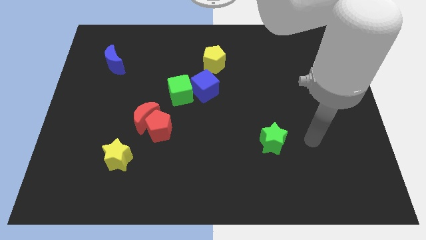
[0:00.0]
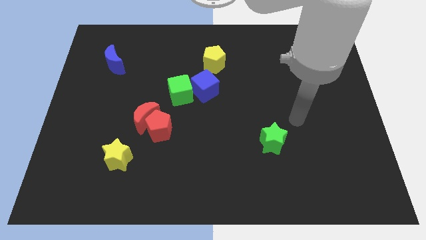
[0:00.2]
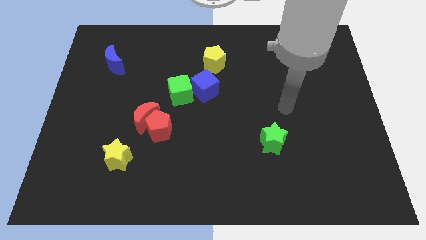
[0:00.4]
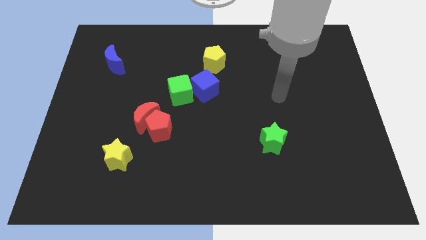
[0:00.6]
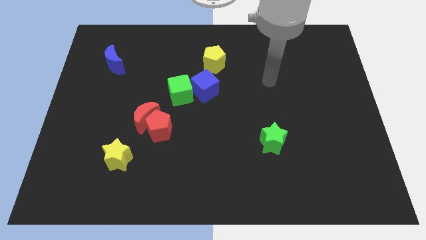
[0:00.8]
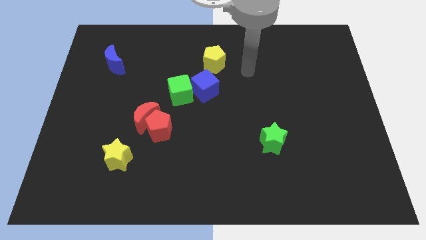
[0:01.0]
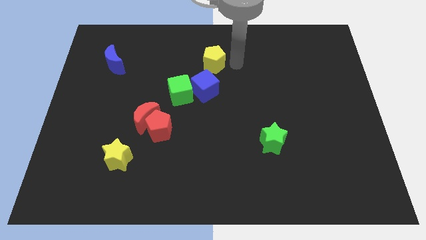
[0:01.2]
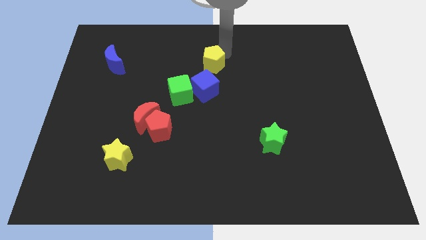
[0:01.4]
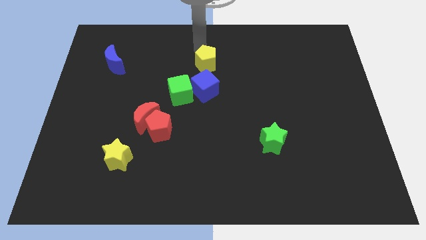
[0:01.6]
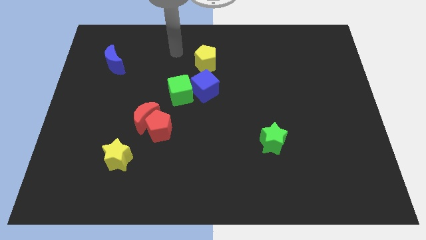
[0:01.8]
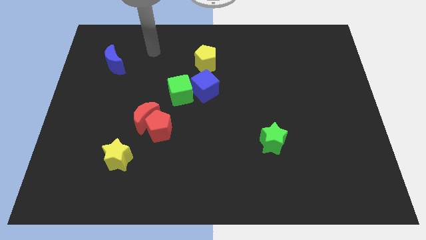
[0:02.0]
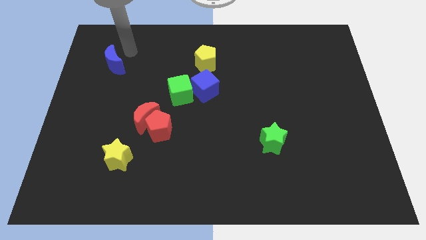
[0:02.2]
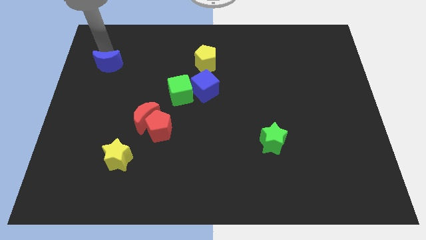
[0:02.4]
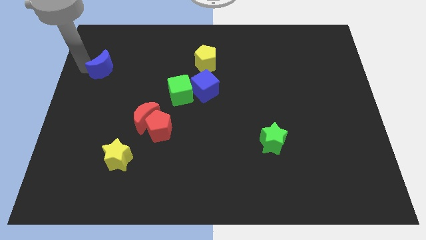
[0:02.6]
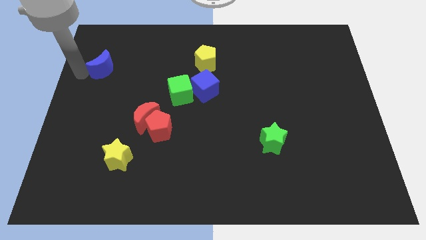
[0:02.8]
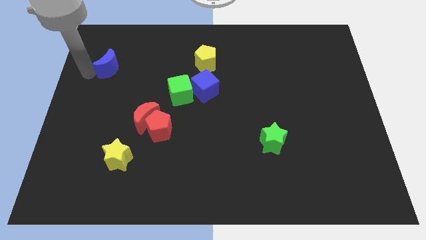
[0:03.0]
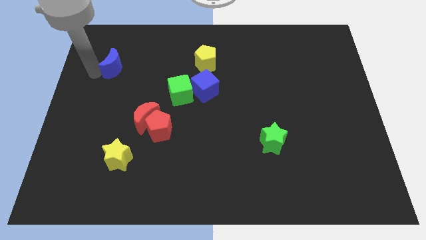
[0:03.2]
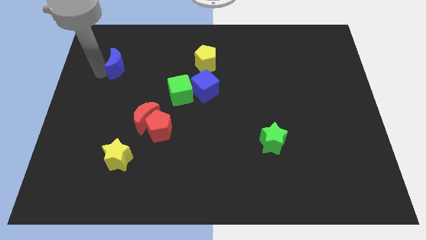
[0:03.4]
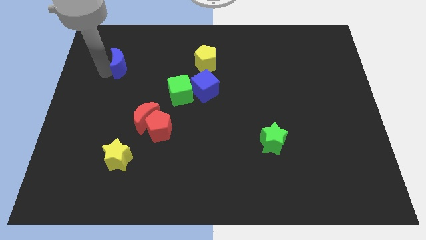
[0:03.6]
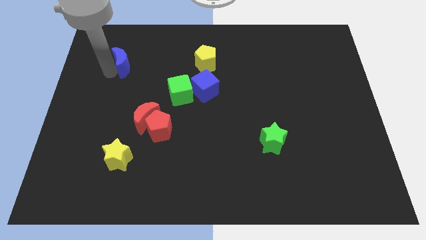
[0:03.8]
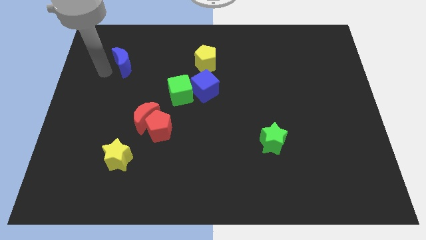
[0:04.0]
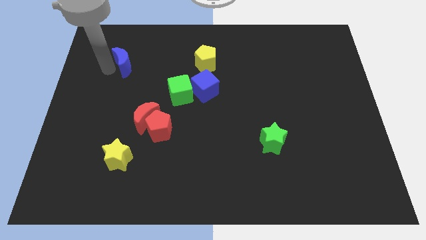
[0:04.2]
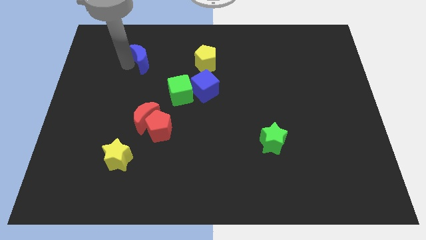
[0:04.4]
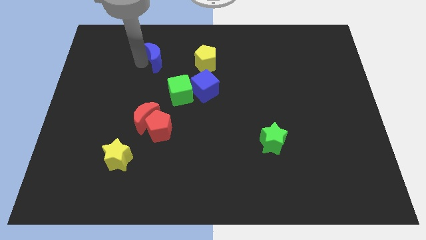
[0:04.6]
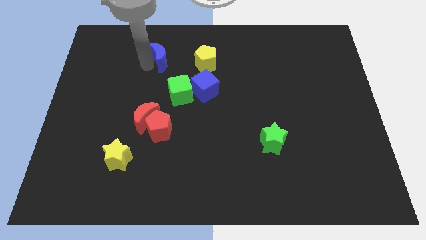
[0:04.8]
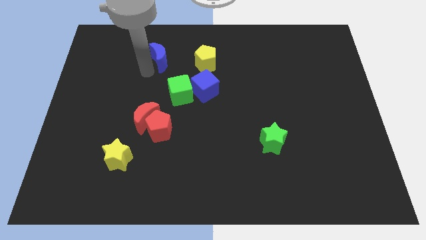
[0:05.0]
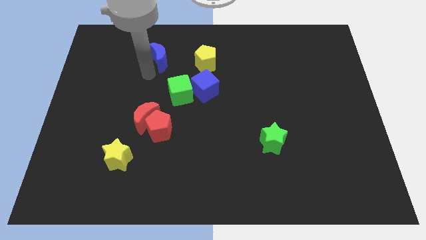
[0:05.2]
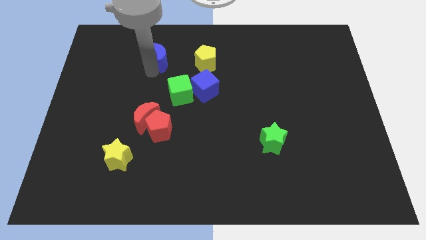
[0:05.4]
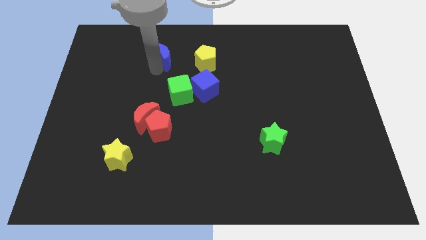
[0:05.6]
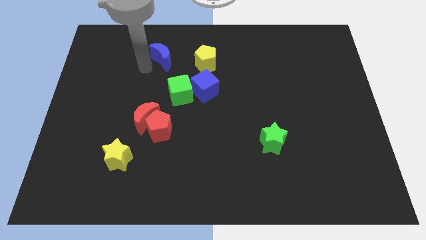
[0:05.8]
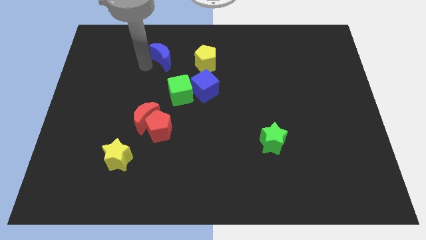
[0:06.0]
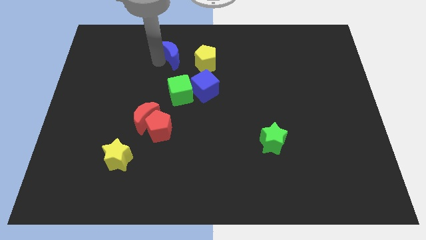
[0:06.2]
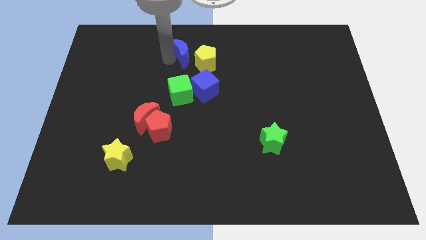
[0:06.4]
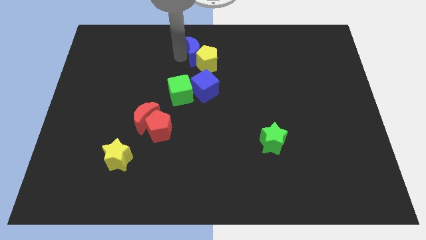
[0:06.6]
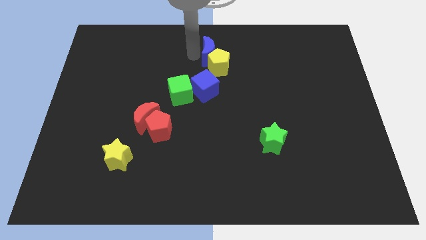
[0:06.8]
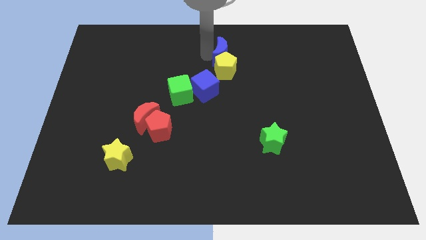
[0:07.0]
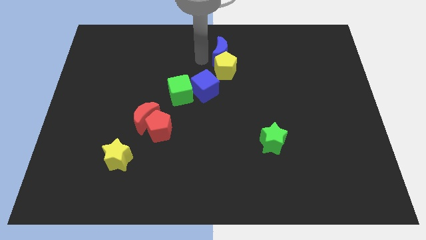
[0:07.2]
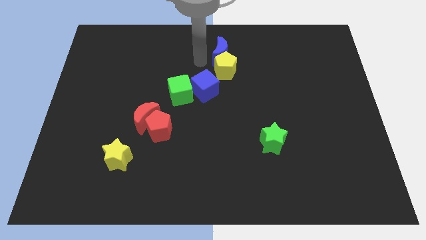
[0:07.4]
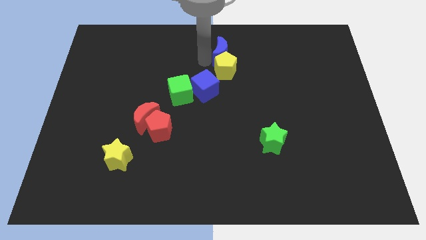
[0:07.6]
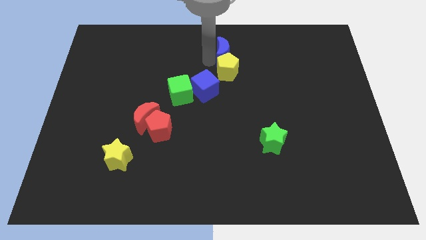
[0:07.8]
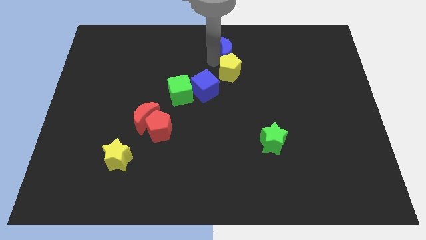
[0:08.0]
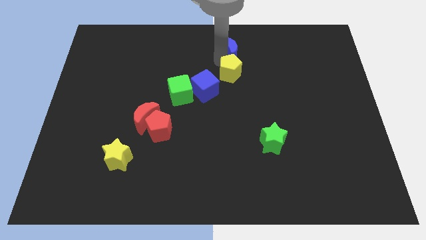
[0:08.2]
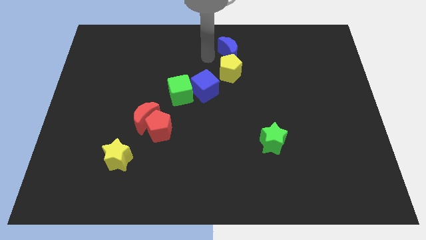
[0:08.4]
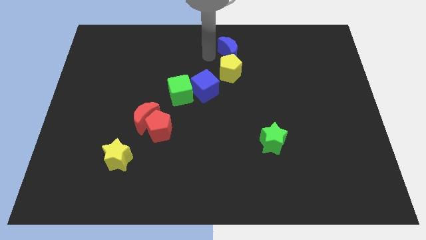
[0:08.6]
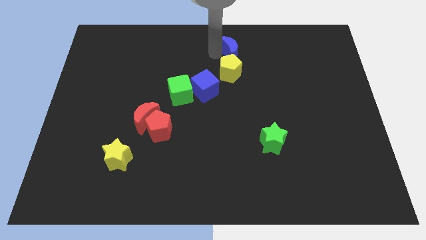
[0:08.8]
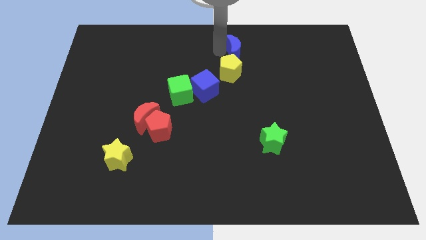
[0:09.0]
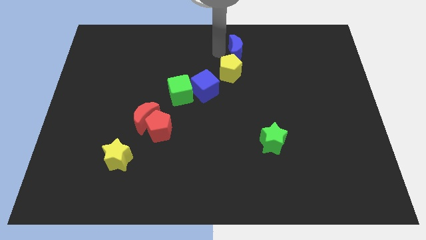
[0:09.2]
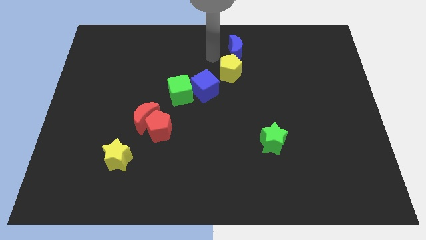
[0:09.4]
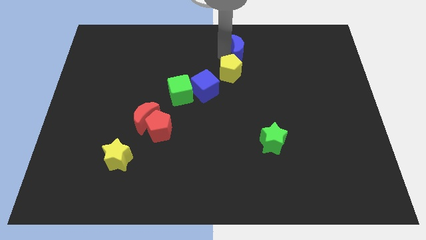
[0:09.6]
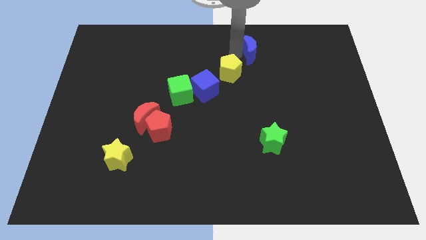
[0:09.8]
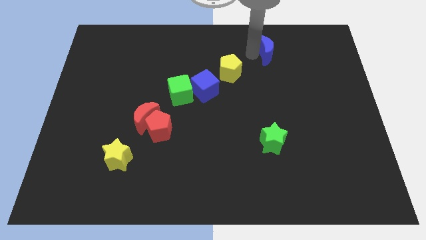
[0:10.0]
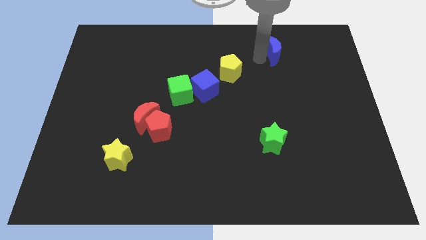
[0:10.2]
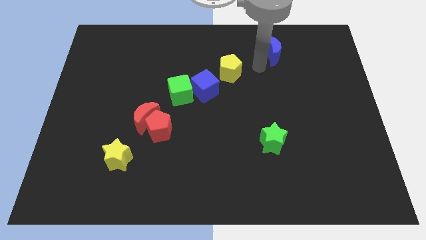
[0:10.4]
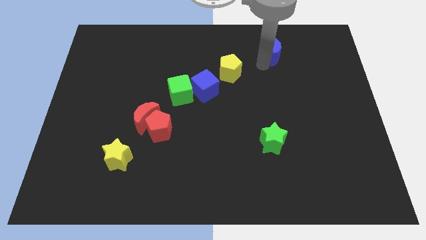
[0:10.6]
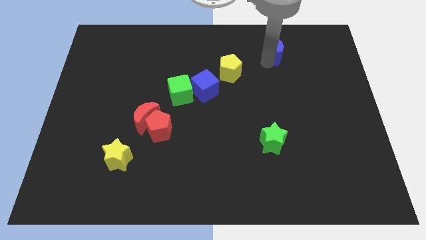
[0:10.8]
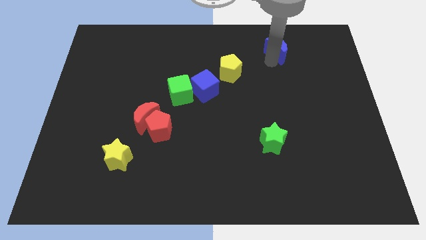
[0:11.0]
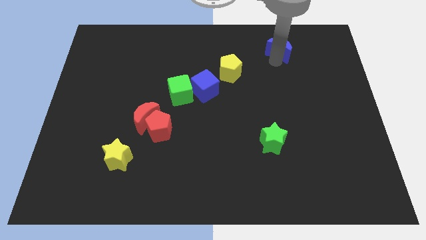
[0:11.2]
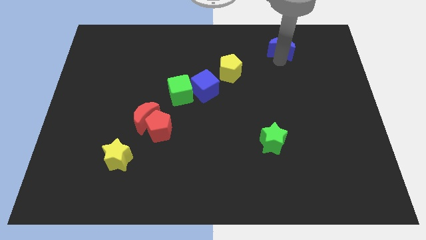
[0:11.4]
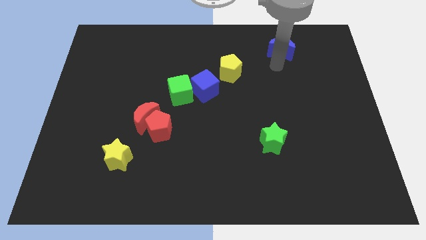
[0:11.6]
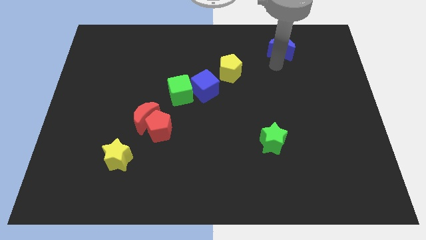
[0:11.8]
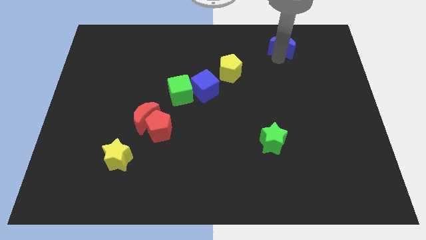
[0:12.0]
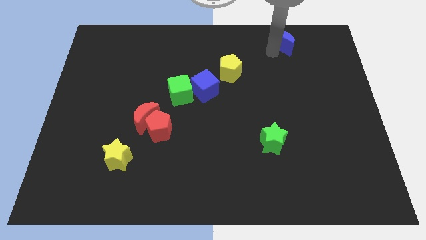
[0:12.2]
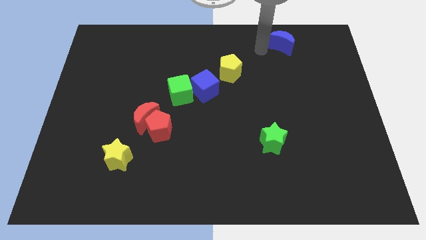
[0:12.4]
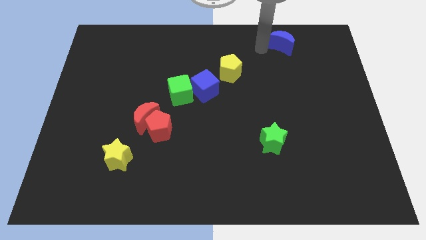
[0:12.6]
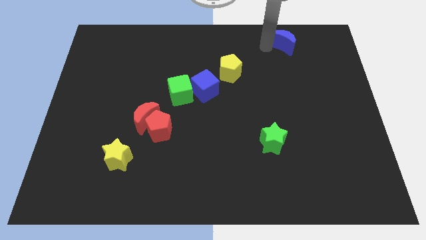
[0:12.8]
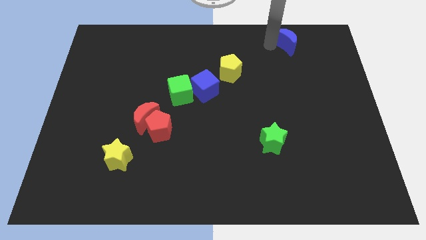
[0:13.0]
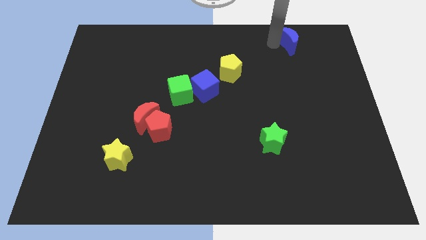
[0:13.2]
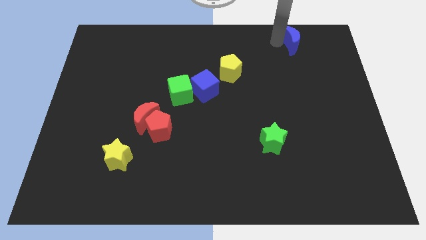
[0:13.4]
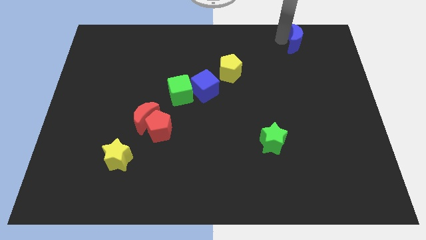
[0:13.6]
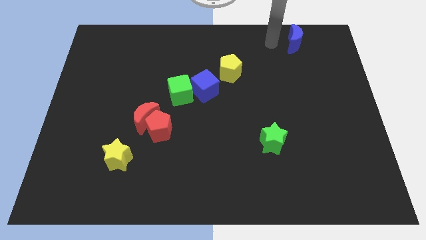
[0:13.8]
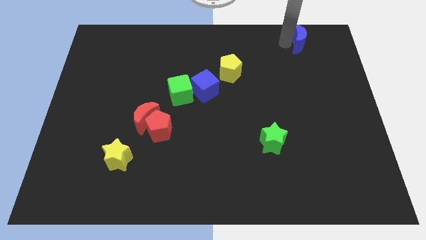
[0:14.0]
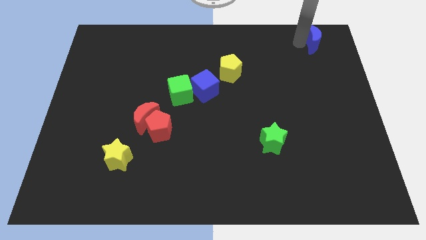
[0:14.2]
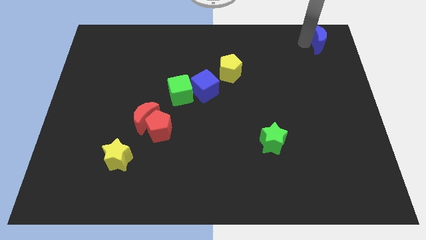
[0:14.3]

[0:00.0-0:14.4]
push the blue moon to the top right
